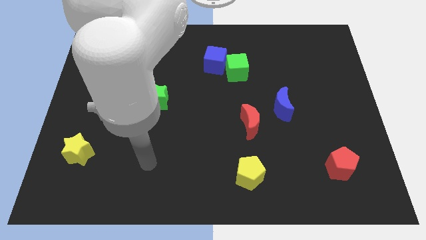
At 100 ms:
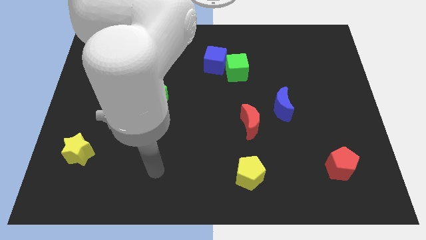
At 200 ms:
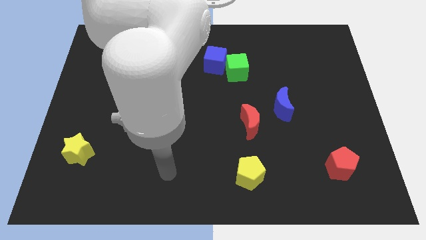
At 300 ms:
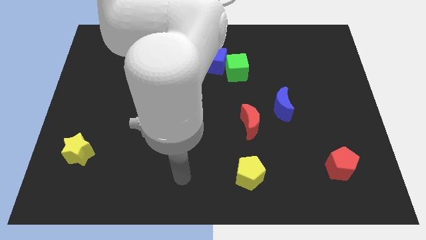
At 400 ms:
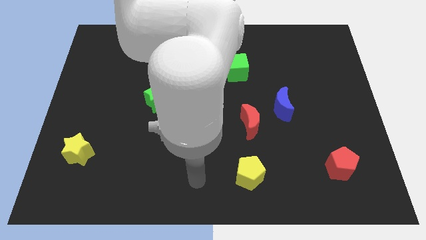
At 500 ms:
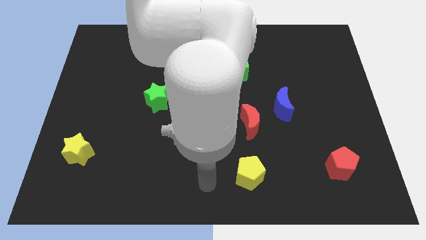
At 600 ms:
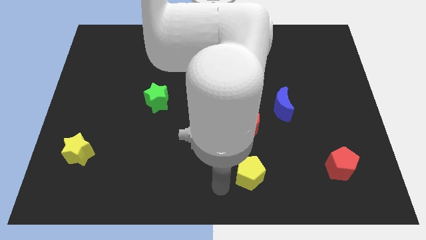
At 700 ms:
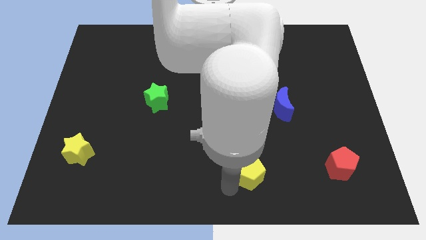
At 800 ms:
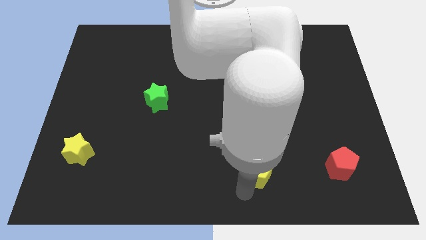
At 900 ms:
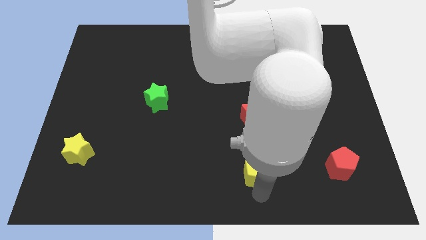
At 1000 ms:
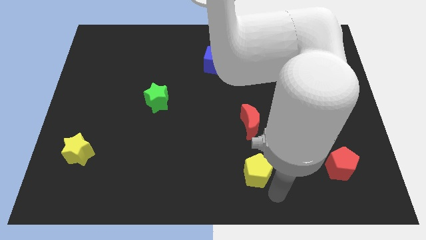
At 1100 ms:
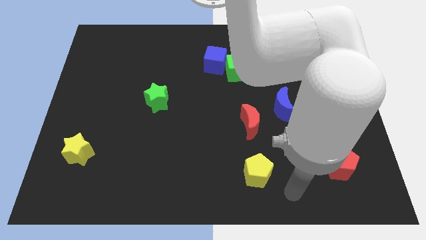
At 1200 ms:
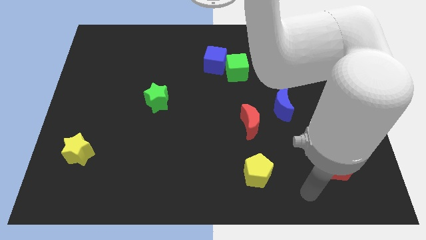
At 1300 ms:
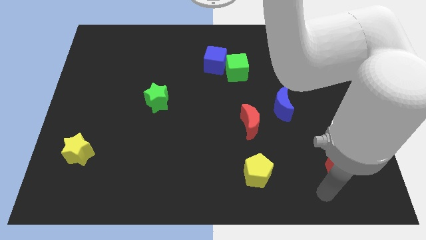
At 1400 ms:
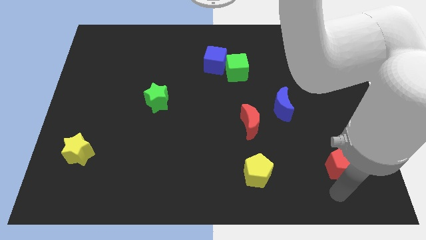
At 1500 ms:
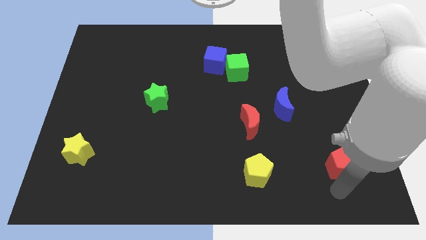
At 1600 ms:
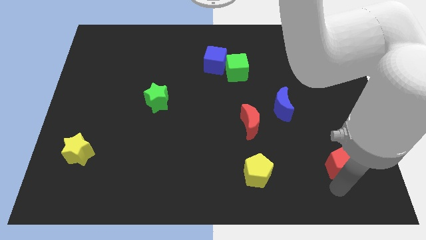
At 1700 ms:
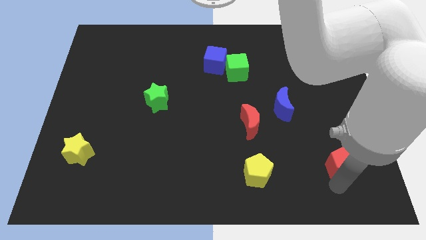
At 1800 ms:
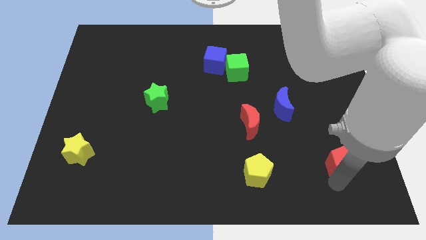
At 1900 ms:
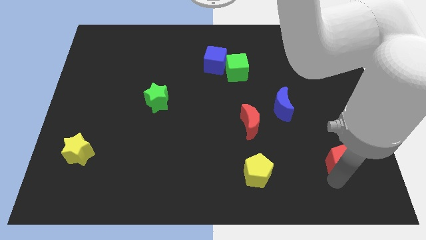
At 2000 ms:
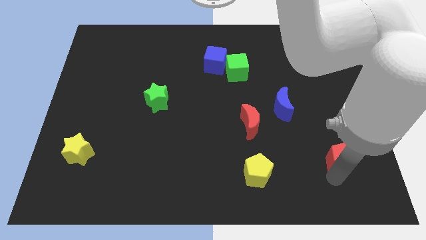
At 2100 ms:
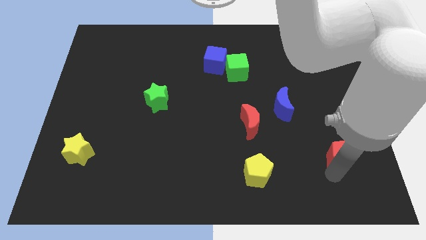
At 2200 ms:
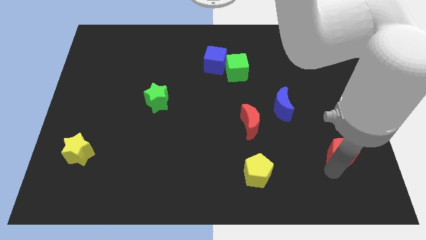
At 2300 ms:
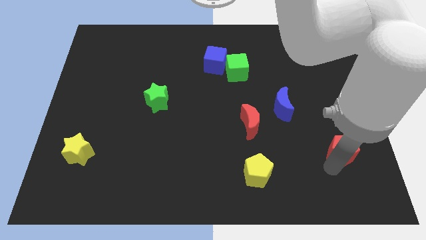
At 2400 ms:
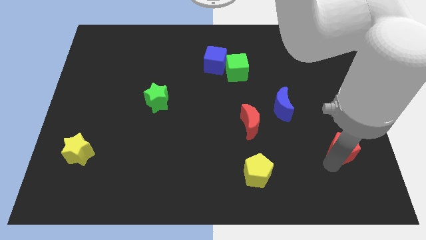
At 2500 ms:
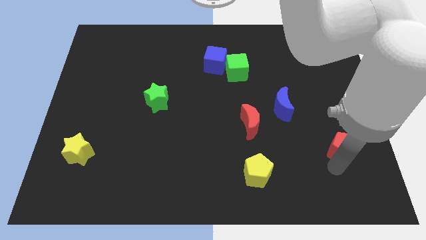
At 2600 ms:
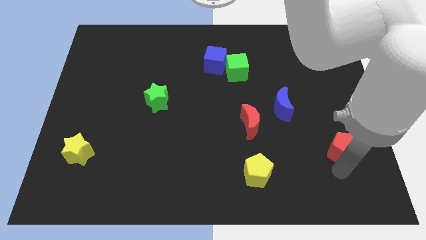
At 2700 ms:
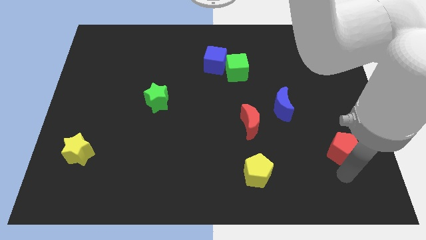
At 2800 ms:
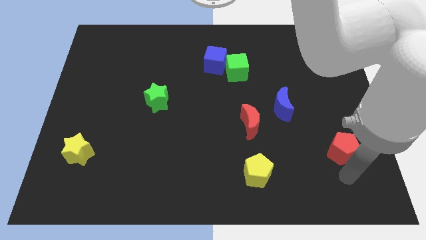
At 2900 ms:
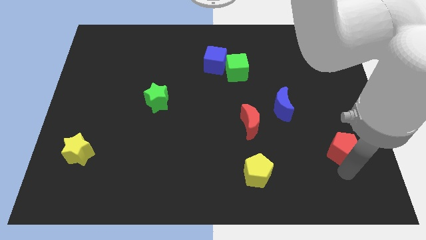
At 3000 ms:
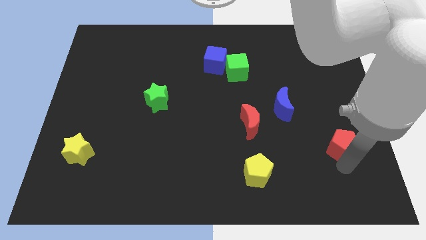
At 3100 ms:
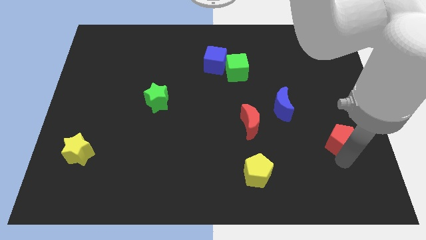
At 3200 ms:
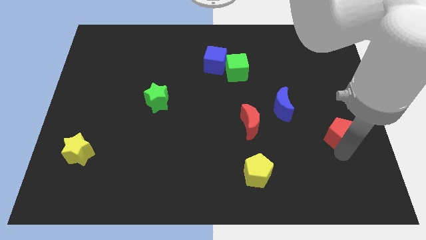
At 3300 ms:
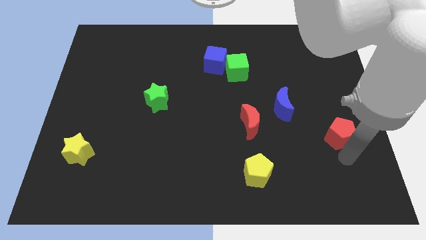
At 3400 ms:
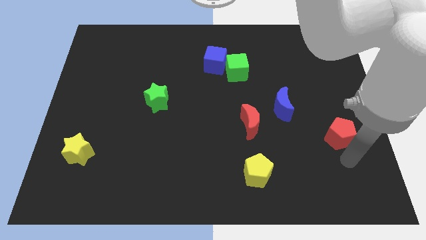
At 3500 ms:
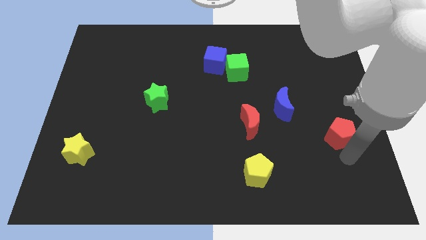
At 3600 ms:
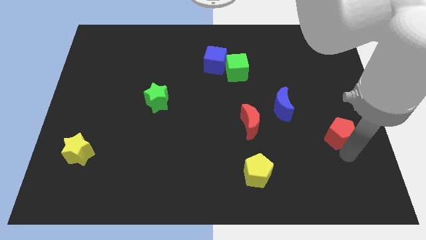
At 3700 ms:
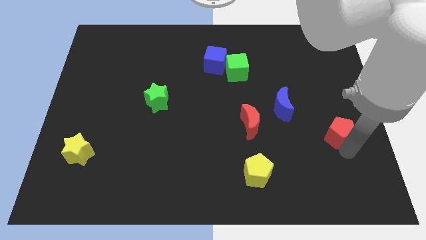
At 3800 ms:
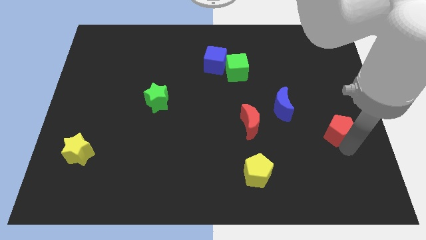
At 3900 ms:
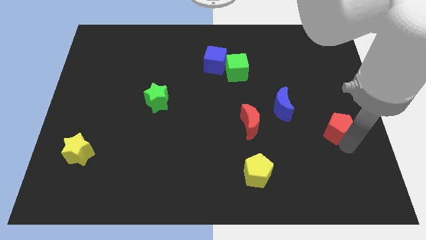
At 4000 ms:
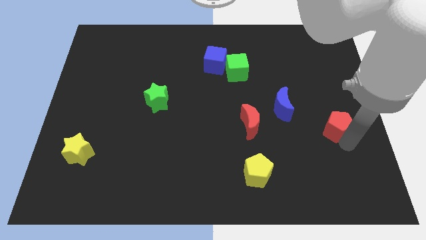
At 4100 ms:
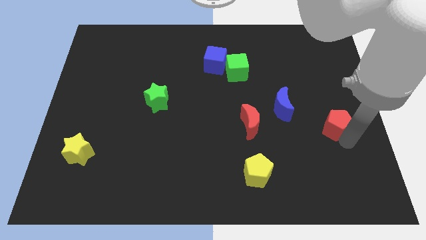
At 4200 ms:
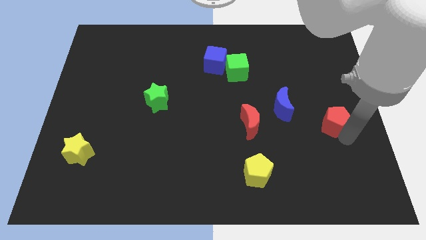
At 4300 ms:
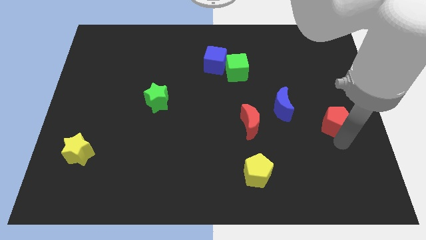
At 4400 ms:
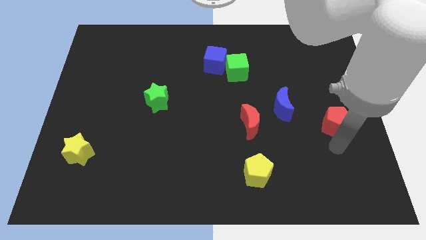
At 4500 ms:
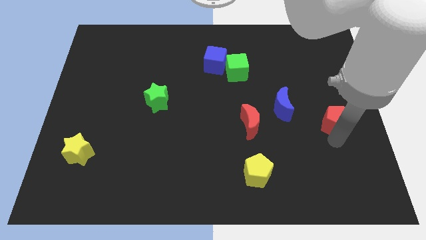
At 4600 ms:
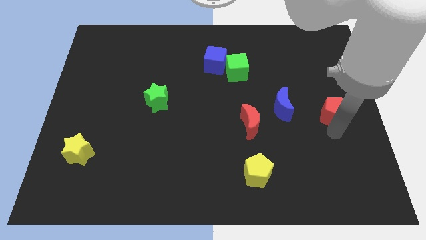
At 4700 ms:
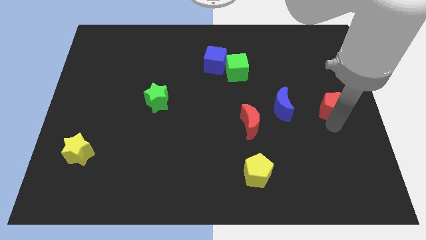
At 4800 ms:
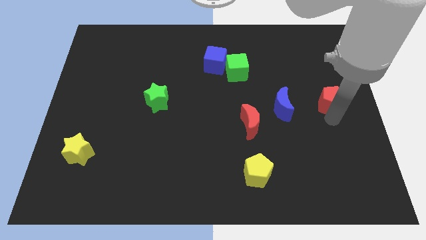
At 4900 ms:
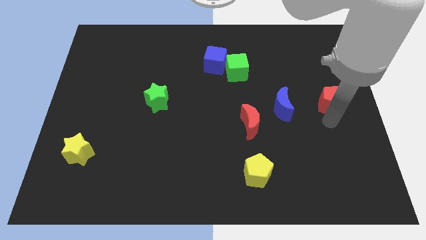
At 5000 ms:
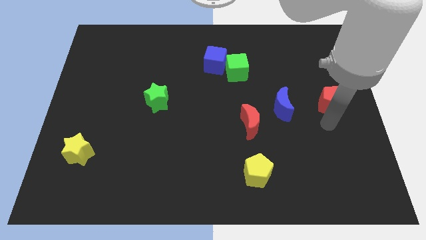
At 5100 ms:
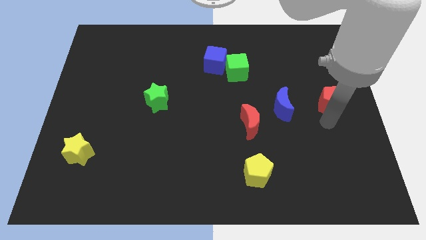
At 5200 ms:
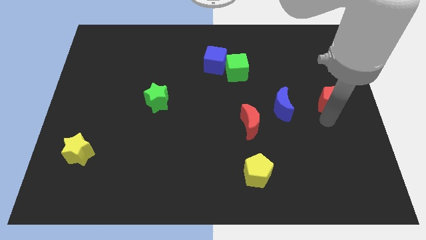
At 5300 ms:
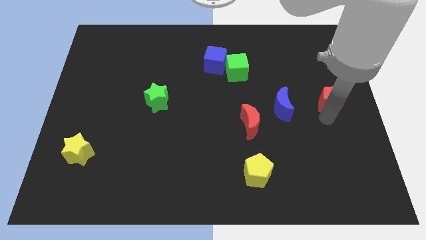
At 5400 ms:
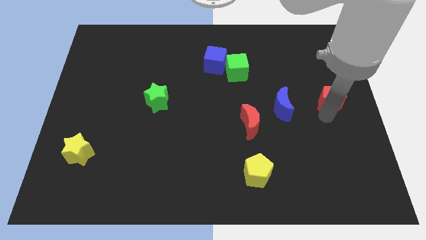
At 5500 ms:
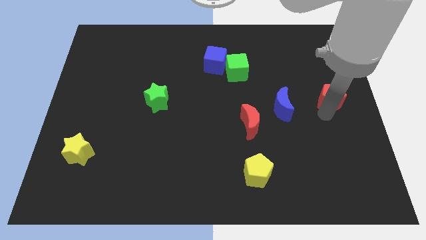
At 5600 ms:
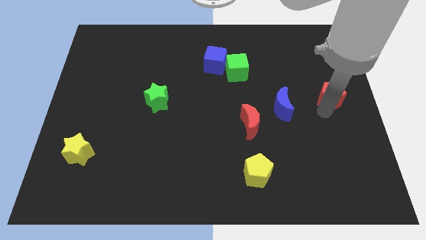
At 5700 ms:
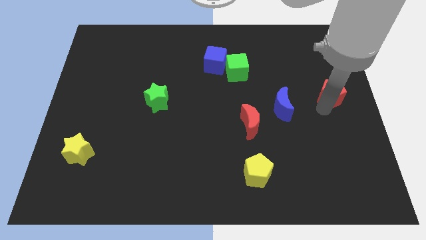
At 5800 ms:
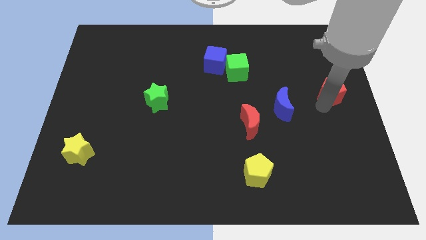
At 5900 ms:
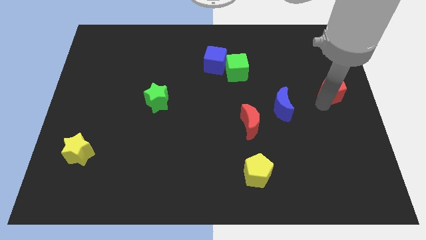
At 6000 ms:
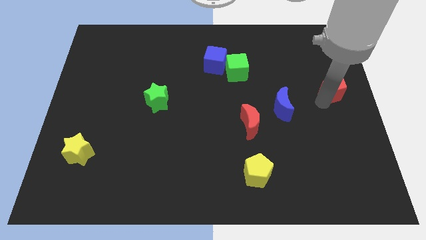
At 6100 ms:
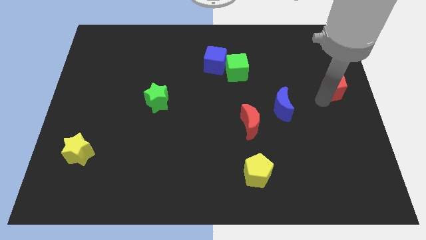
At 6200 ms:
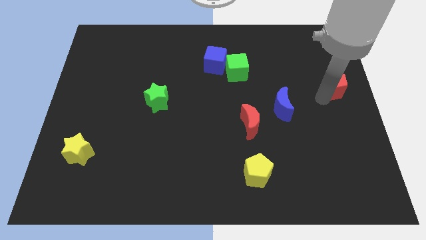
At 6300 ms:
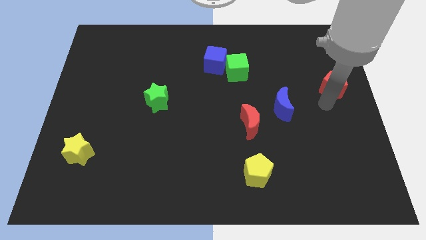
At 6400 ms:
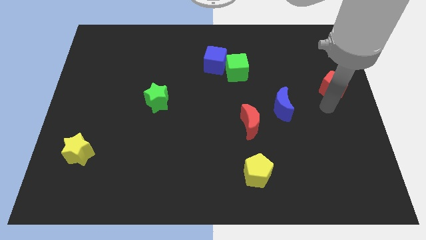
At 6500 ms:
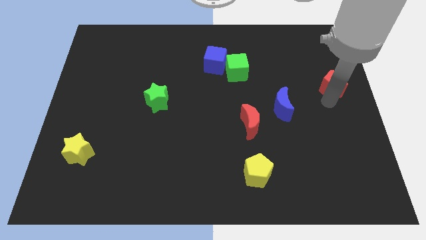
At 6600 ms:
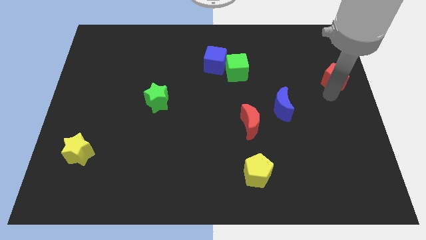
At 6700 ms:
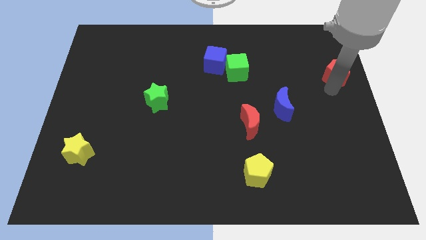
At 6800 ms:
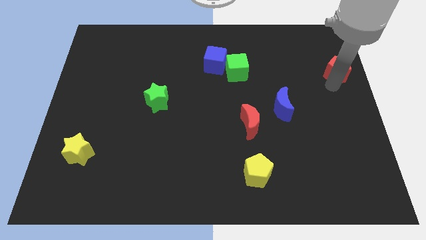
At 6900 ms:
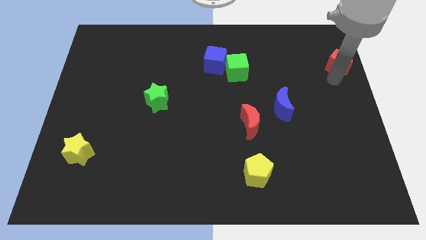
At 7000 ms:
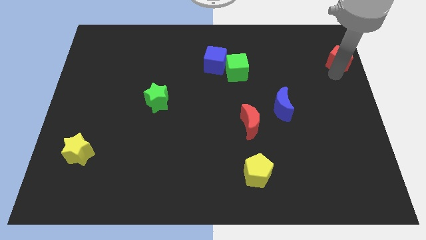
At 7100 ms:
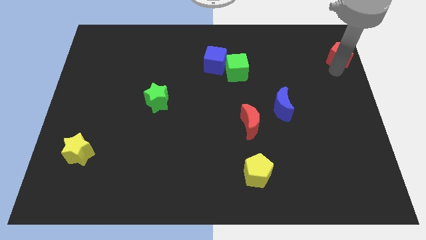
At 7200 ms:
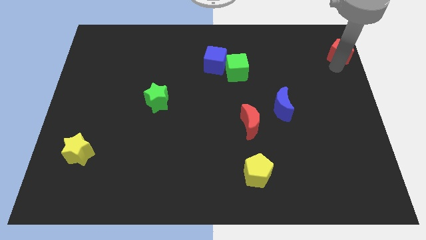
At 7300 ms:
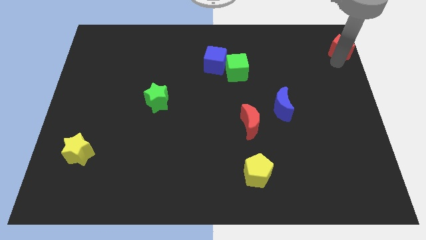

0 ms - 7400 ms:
push the red pentagon to the top right corner
